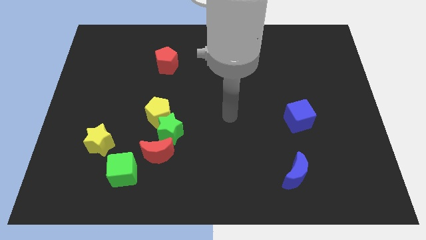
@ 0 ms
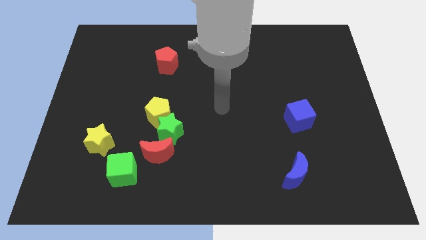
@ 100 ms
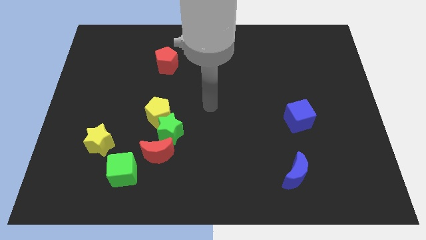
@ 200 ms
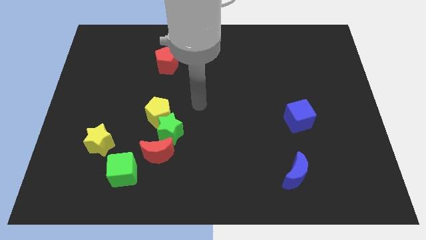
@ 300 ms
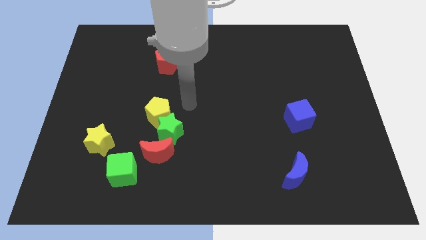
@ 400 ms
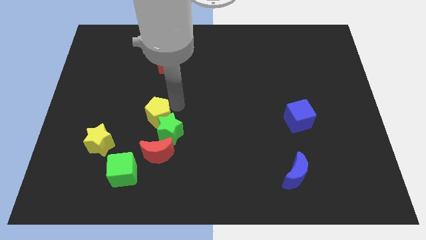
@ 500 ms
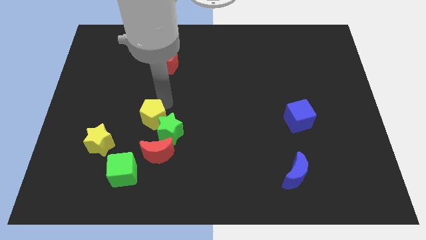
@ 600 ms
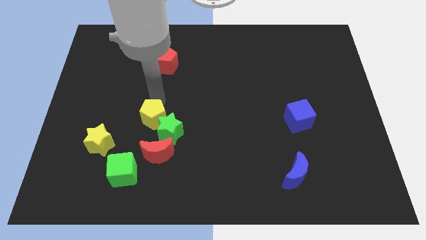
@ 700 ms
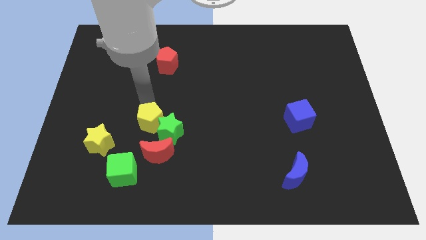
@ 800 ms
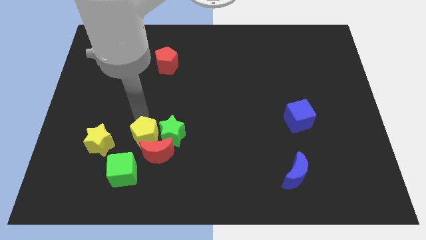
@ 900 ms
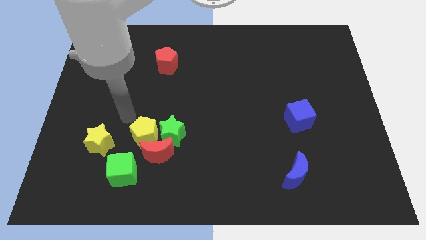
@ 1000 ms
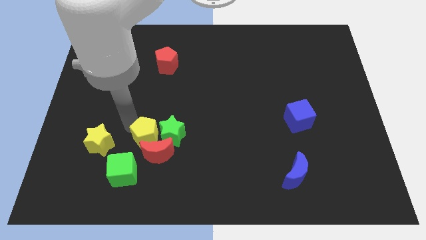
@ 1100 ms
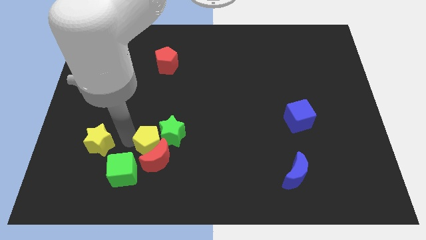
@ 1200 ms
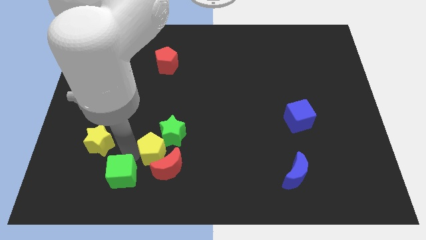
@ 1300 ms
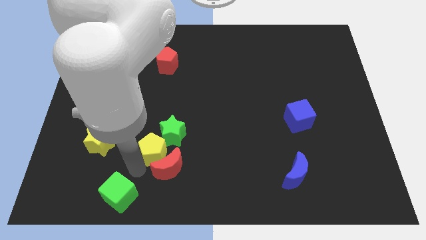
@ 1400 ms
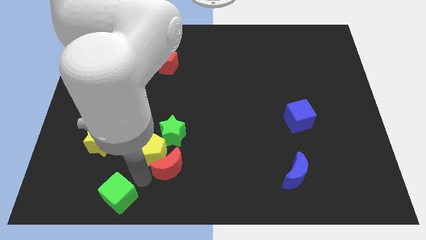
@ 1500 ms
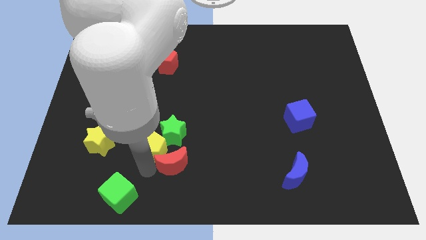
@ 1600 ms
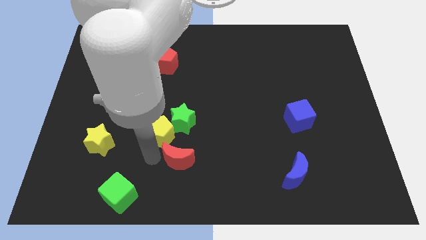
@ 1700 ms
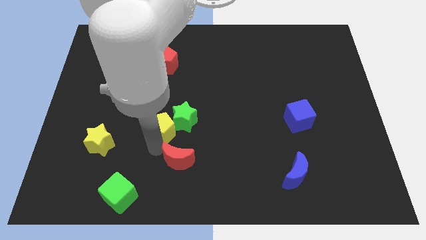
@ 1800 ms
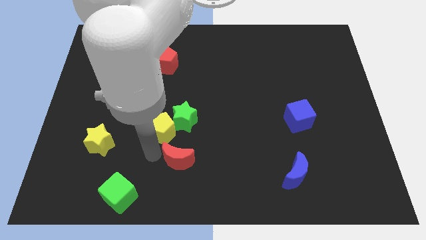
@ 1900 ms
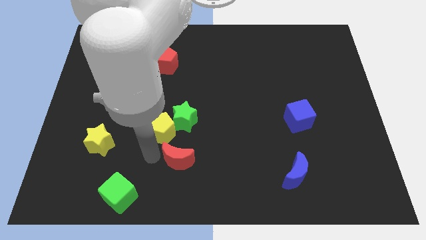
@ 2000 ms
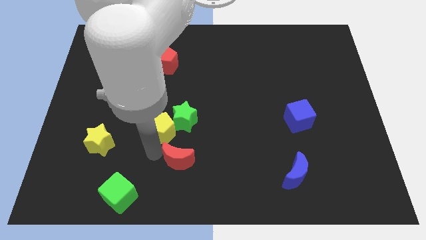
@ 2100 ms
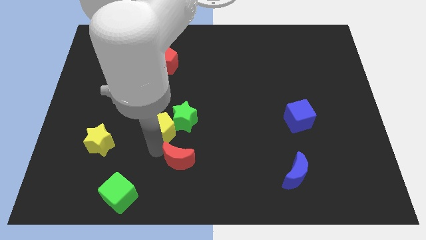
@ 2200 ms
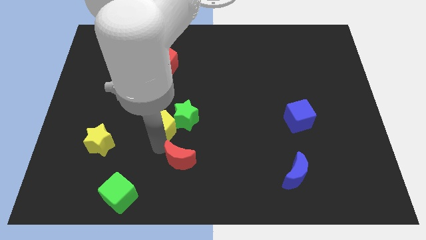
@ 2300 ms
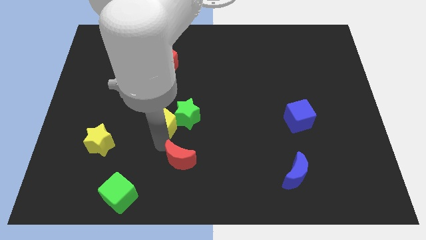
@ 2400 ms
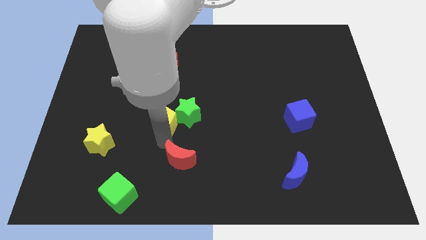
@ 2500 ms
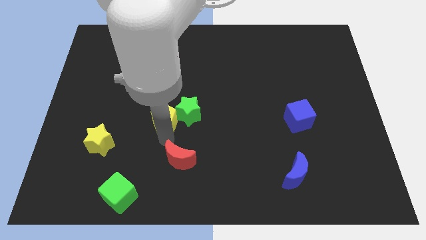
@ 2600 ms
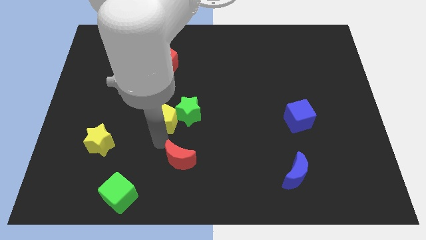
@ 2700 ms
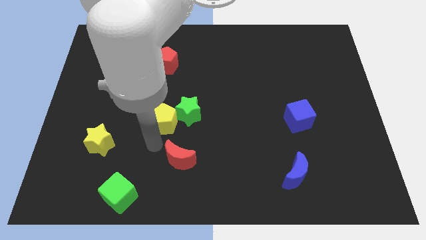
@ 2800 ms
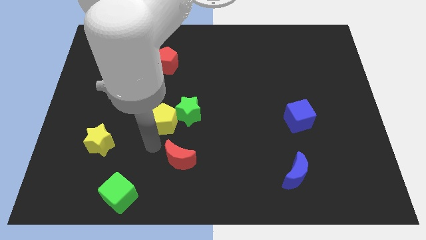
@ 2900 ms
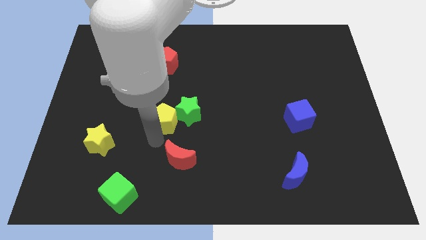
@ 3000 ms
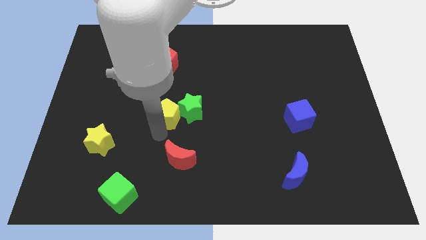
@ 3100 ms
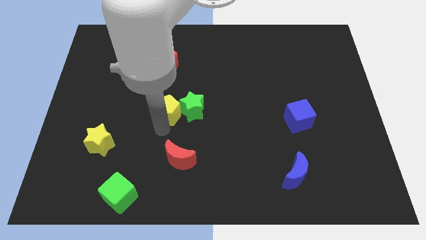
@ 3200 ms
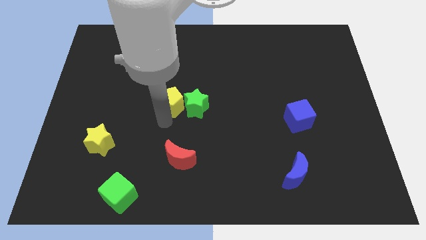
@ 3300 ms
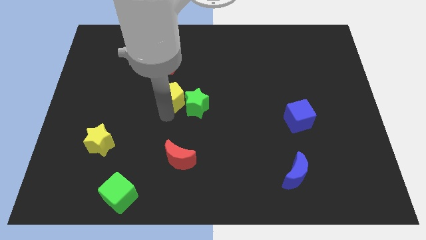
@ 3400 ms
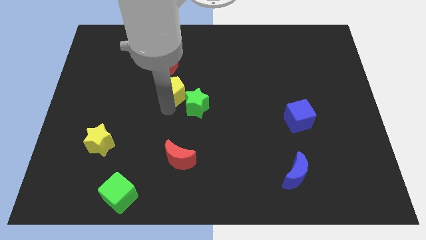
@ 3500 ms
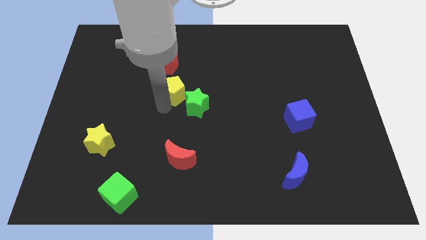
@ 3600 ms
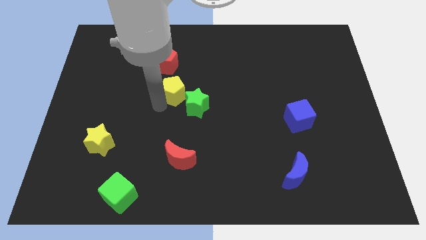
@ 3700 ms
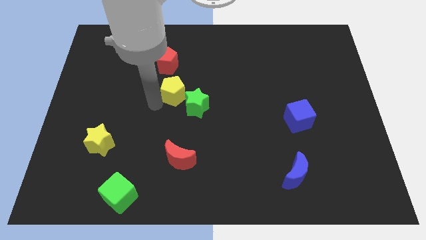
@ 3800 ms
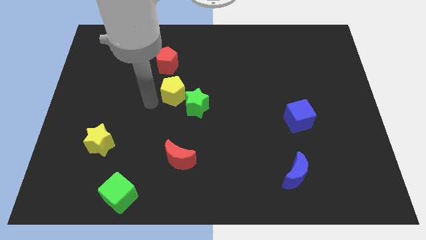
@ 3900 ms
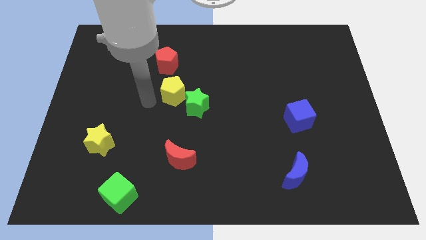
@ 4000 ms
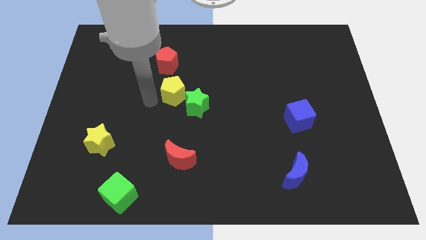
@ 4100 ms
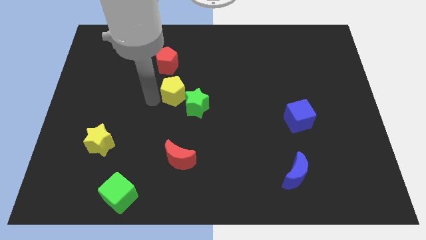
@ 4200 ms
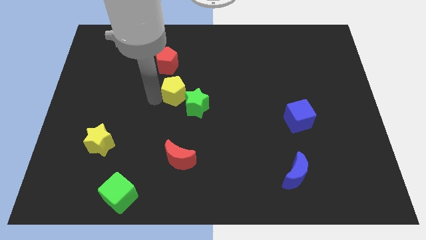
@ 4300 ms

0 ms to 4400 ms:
slide the yellow pentagon a little bit upwards and to the right

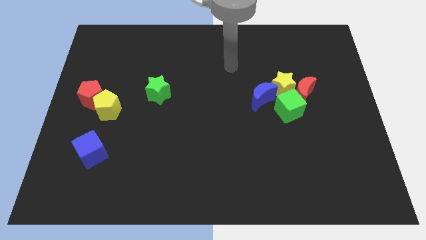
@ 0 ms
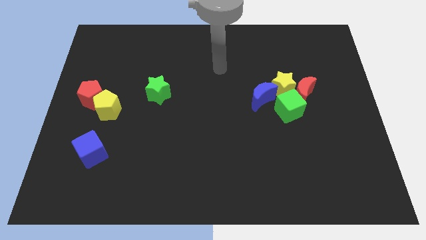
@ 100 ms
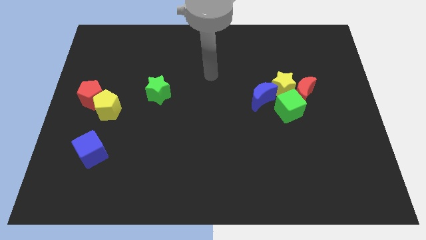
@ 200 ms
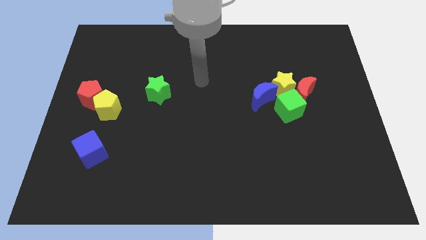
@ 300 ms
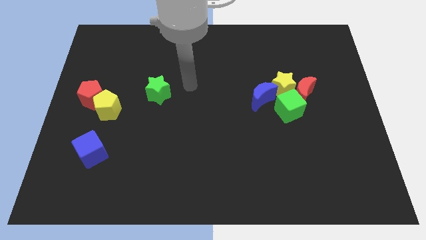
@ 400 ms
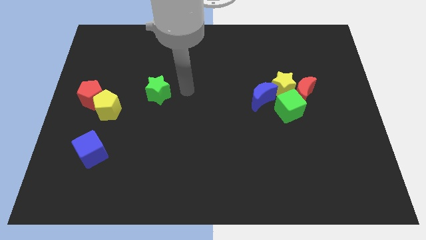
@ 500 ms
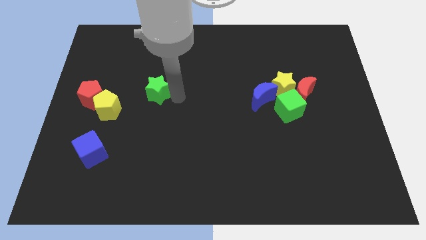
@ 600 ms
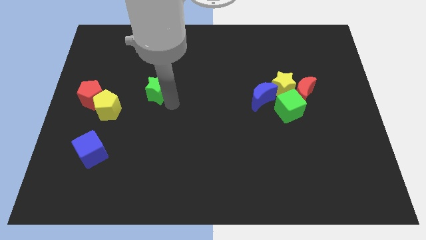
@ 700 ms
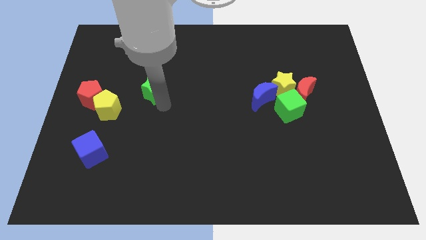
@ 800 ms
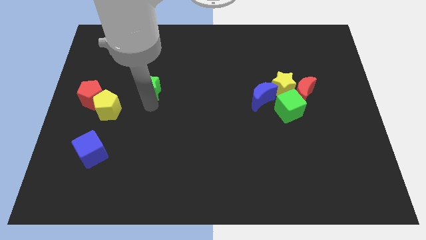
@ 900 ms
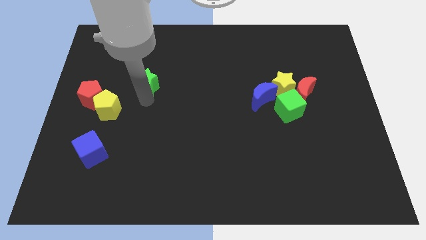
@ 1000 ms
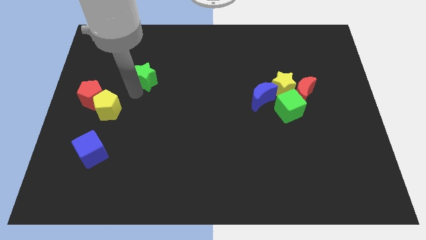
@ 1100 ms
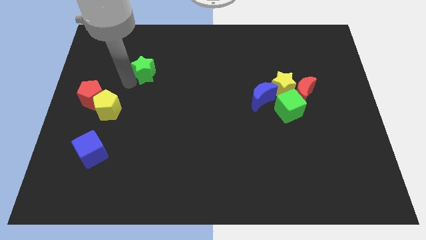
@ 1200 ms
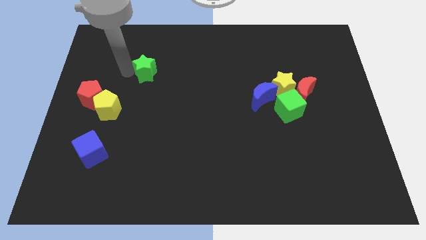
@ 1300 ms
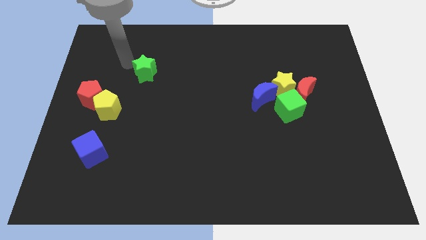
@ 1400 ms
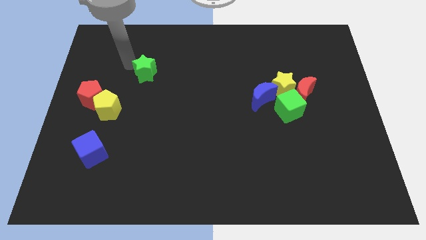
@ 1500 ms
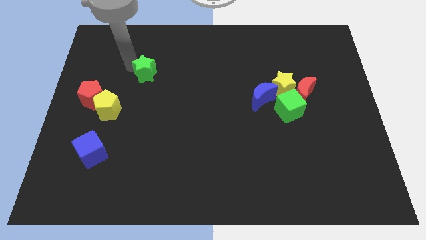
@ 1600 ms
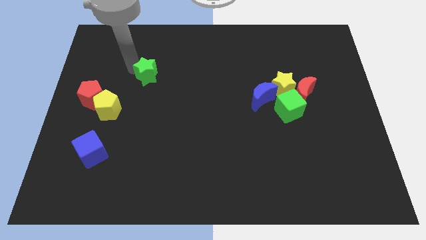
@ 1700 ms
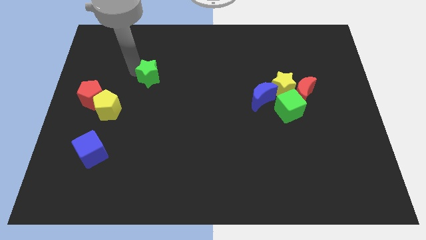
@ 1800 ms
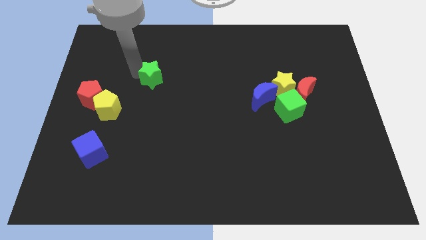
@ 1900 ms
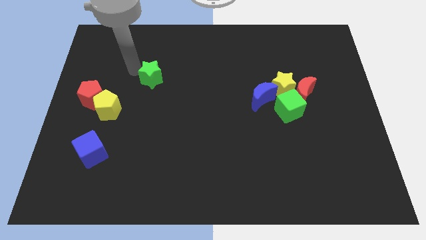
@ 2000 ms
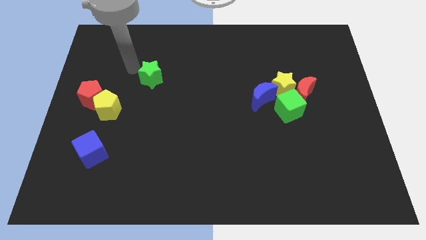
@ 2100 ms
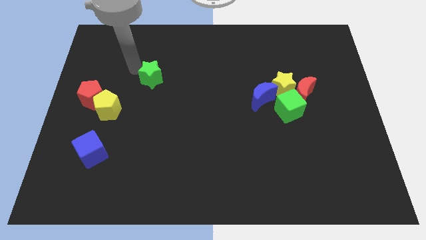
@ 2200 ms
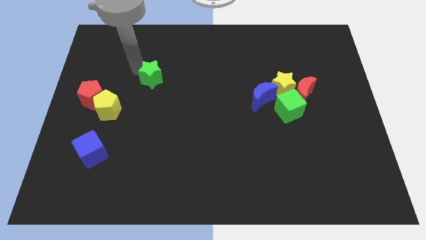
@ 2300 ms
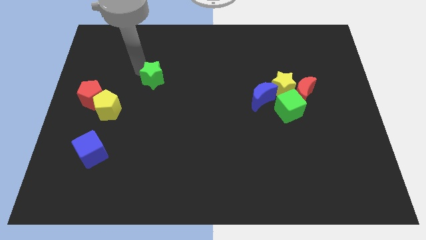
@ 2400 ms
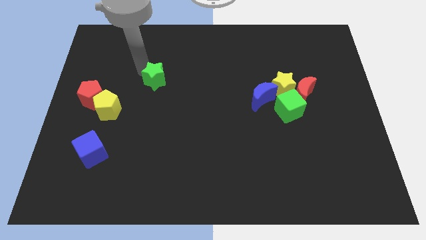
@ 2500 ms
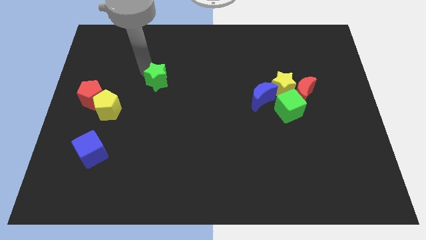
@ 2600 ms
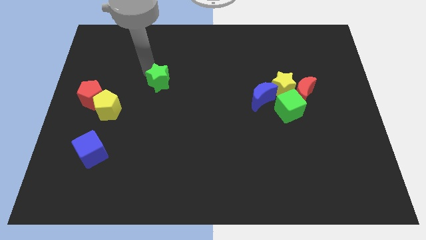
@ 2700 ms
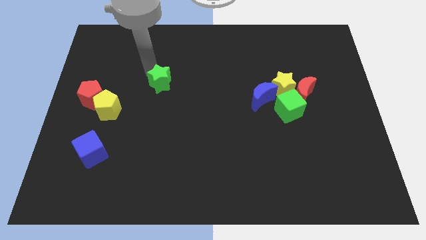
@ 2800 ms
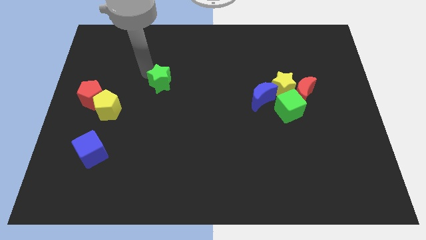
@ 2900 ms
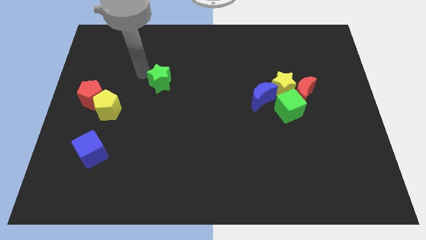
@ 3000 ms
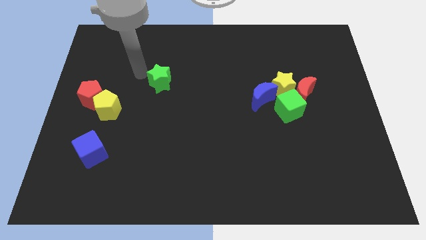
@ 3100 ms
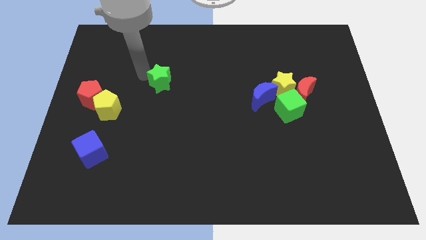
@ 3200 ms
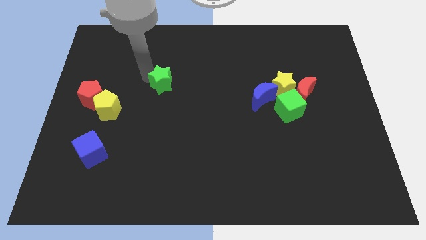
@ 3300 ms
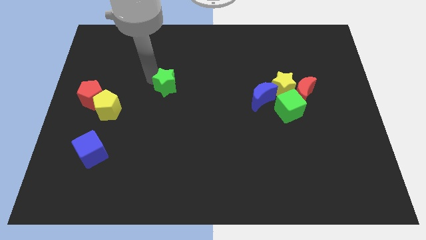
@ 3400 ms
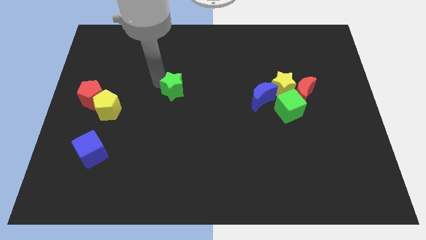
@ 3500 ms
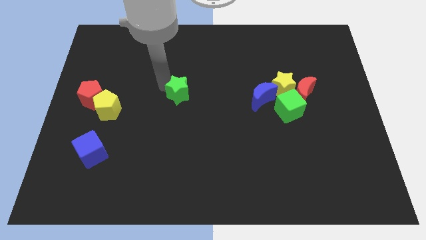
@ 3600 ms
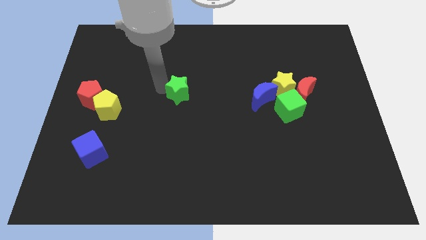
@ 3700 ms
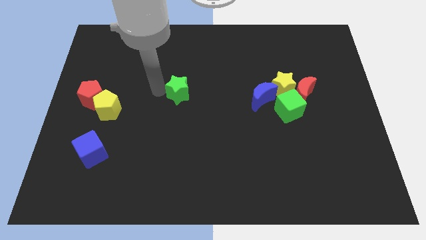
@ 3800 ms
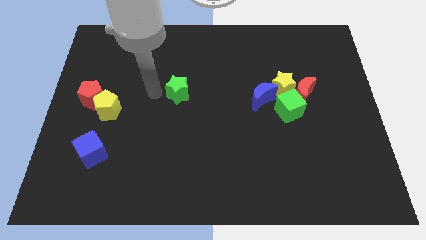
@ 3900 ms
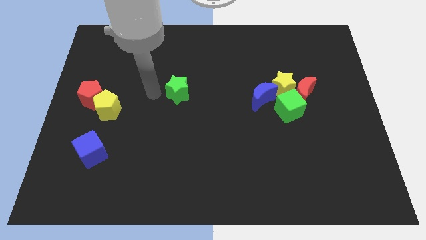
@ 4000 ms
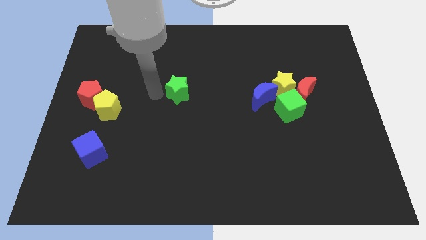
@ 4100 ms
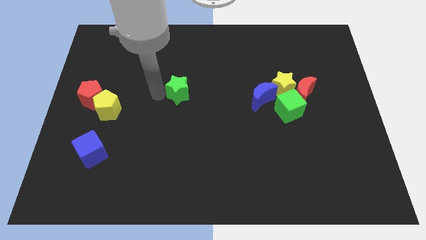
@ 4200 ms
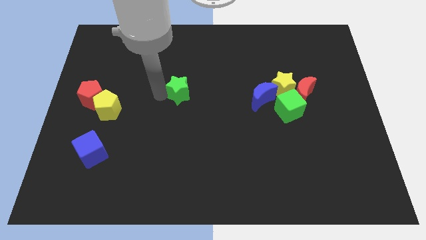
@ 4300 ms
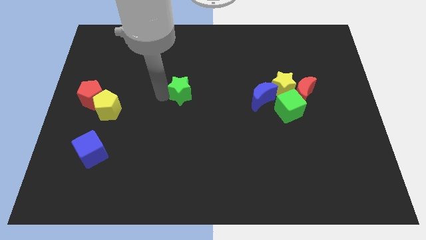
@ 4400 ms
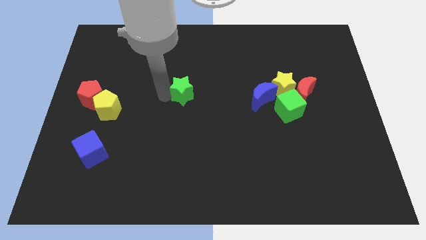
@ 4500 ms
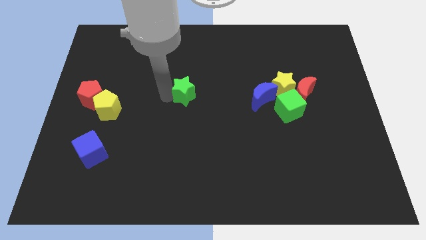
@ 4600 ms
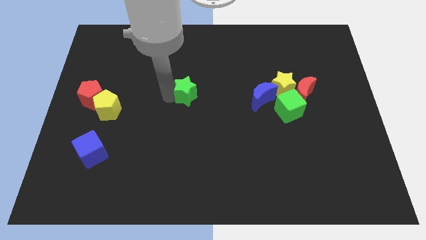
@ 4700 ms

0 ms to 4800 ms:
slightly move the green star right
